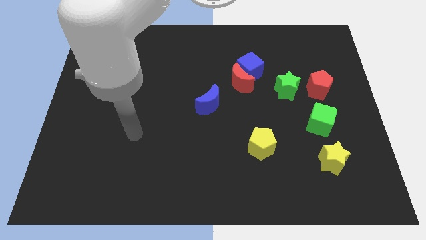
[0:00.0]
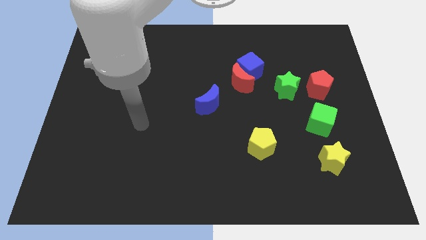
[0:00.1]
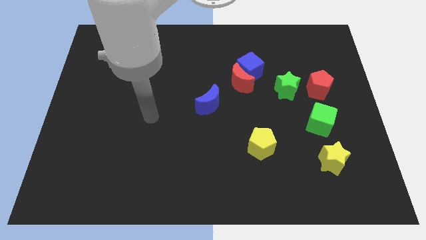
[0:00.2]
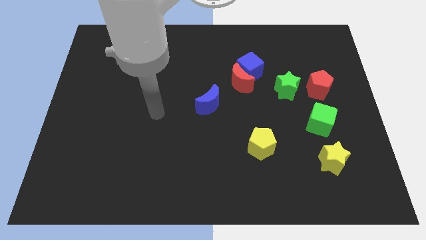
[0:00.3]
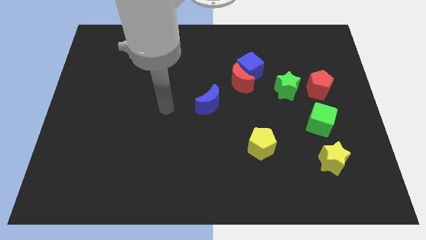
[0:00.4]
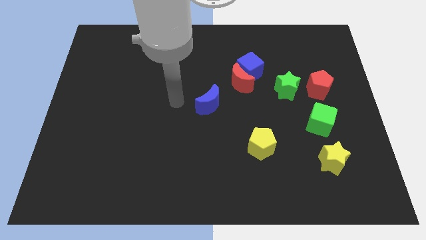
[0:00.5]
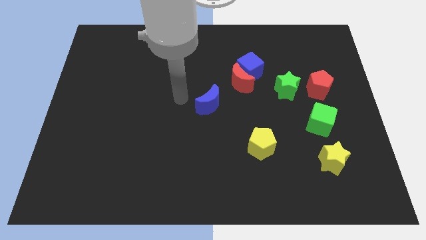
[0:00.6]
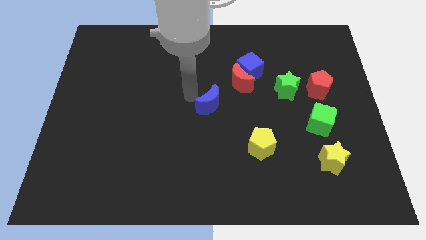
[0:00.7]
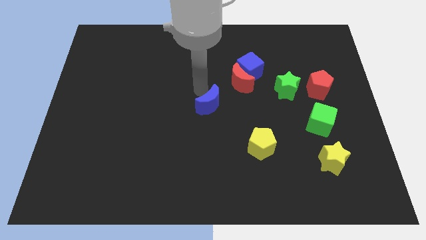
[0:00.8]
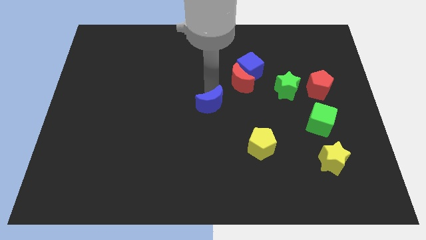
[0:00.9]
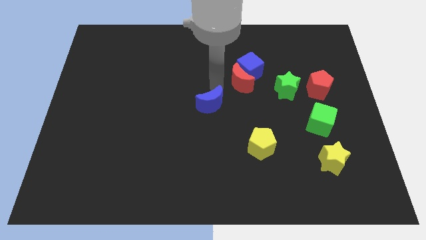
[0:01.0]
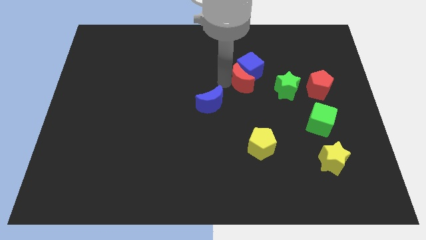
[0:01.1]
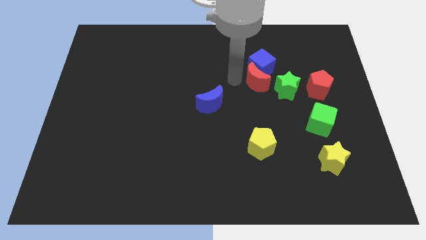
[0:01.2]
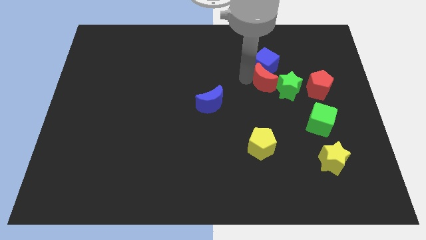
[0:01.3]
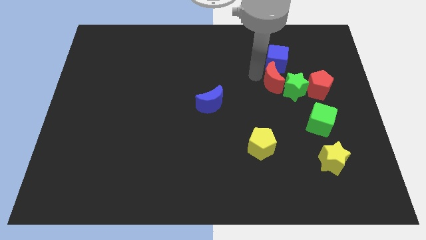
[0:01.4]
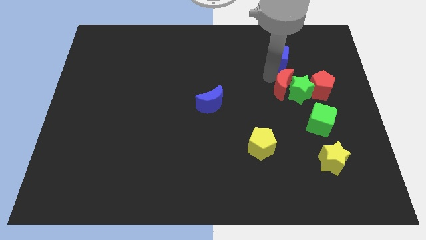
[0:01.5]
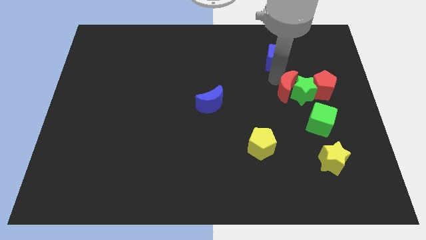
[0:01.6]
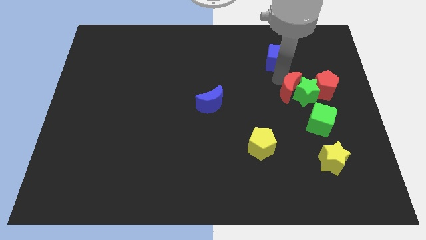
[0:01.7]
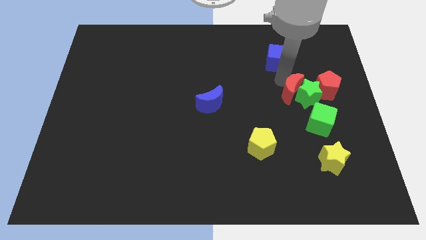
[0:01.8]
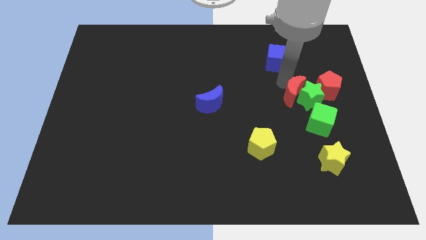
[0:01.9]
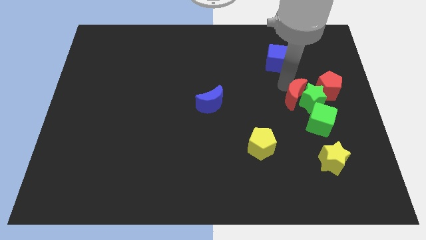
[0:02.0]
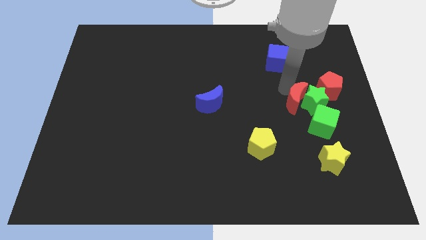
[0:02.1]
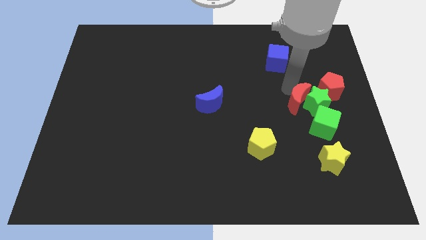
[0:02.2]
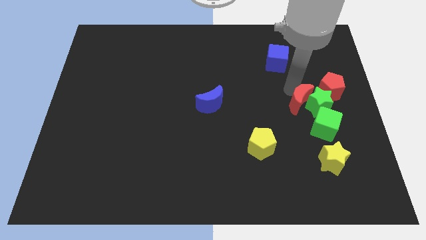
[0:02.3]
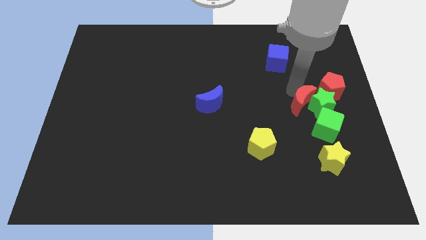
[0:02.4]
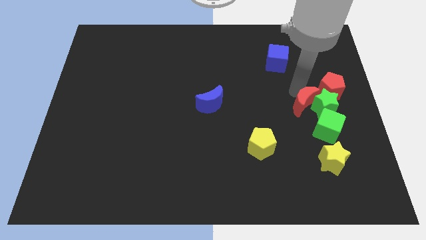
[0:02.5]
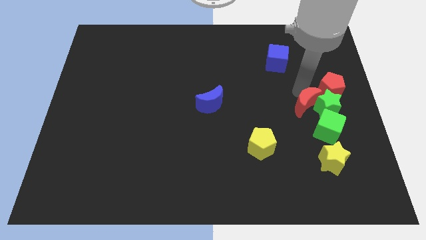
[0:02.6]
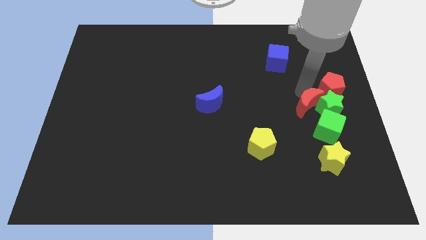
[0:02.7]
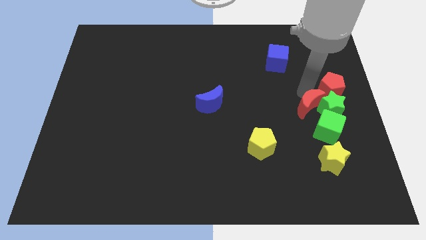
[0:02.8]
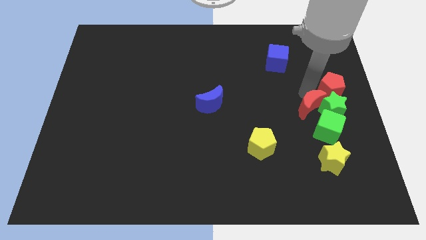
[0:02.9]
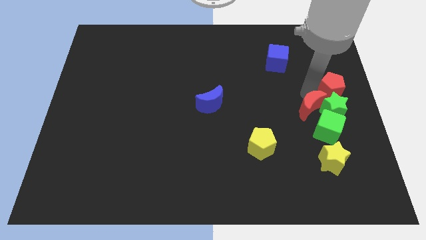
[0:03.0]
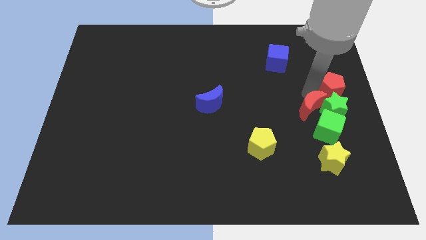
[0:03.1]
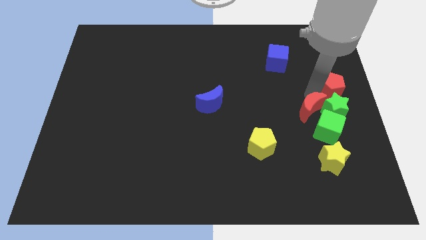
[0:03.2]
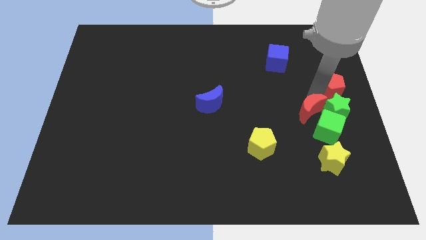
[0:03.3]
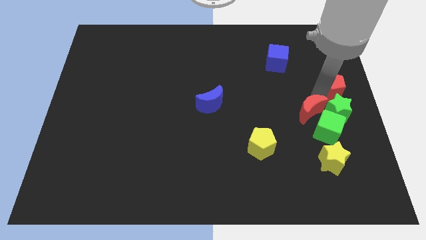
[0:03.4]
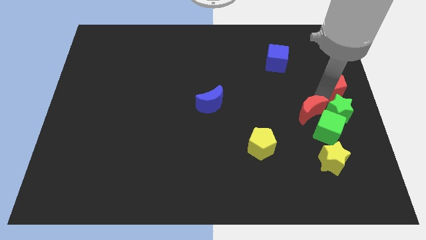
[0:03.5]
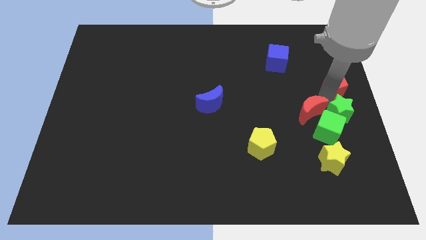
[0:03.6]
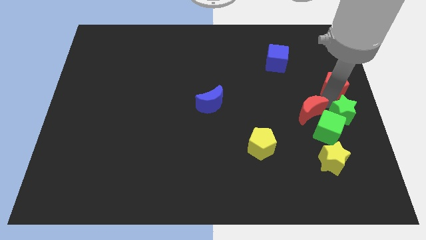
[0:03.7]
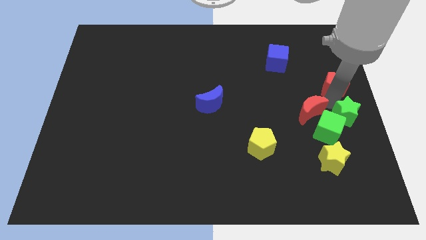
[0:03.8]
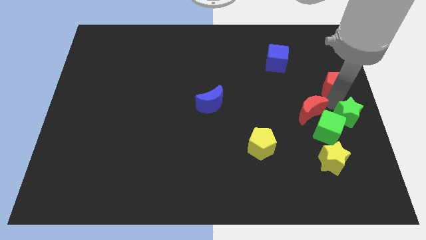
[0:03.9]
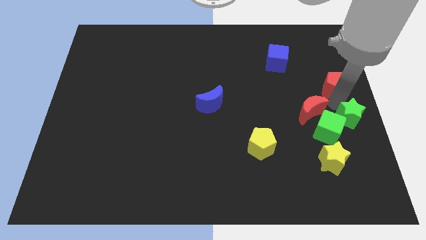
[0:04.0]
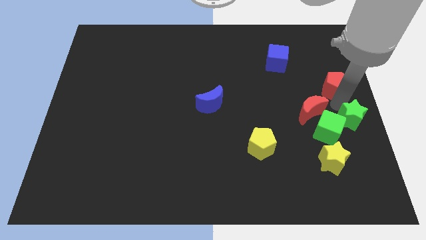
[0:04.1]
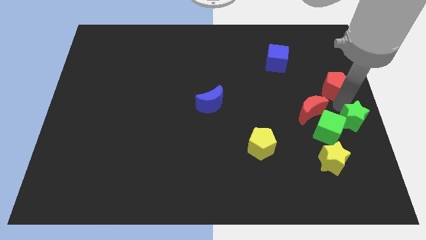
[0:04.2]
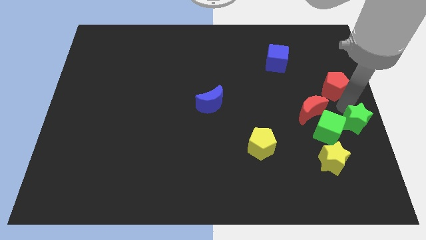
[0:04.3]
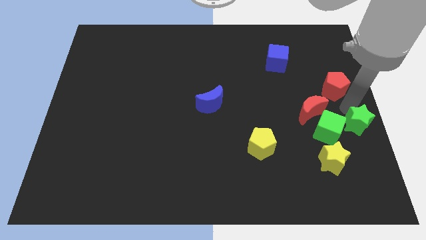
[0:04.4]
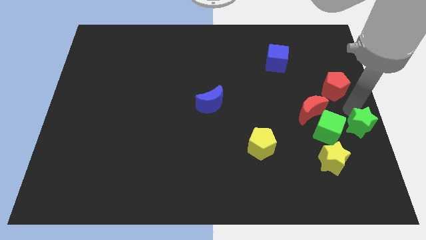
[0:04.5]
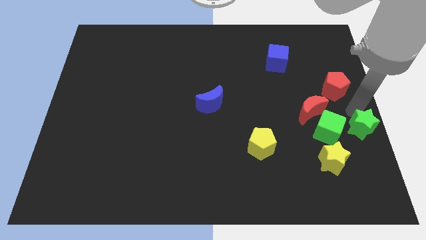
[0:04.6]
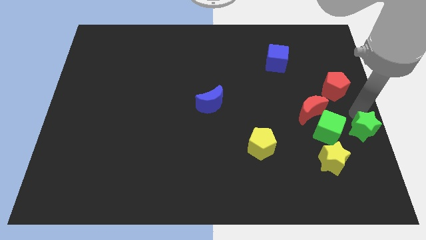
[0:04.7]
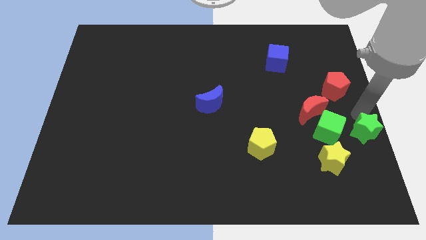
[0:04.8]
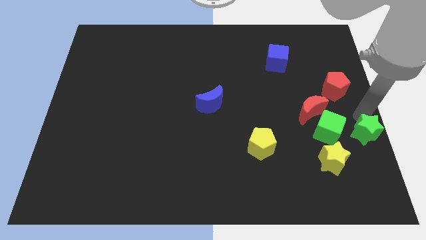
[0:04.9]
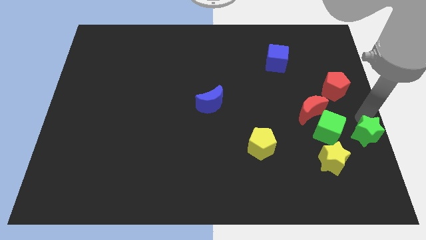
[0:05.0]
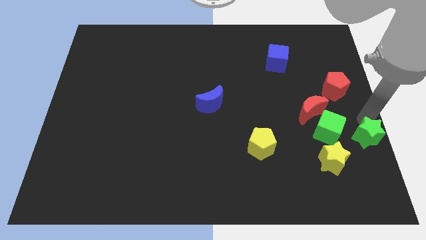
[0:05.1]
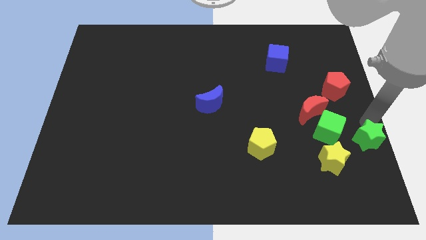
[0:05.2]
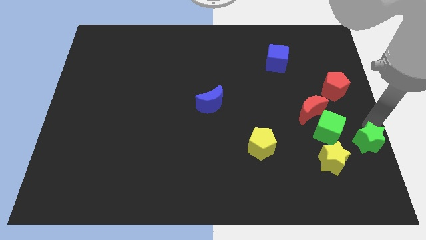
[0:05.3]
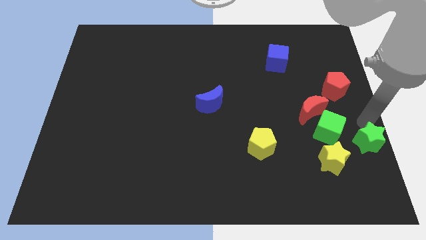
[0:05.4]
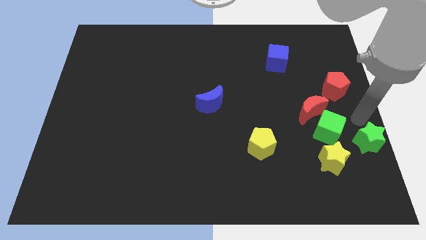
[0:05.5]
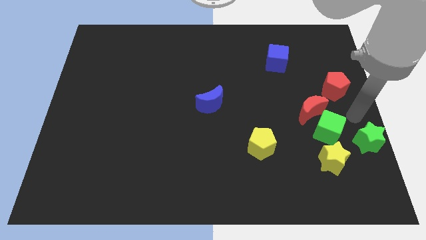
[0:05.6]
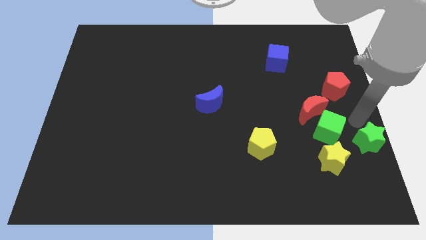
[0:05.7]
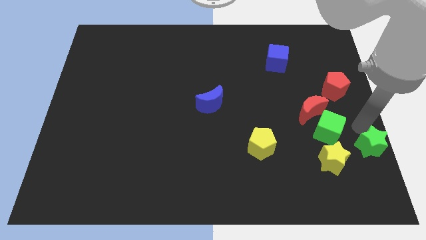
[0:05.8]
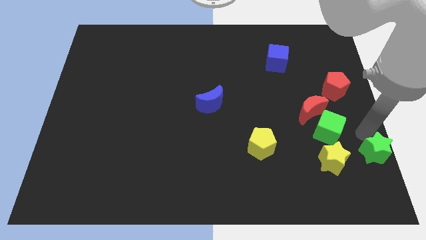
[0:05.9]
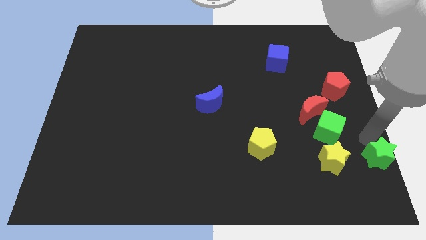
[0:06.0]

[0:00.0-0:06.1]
move the green star to the bottom right of the board

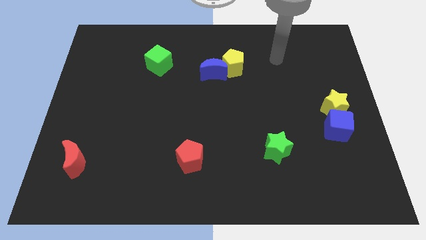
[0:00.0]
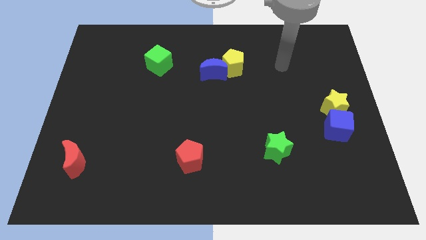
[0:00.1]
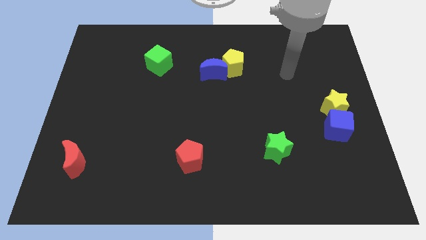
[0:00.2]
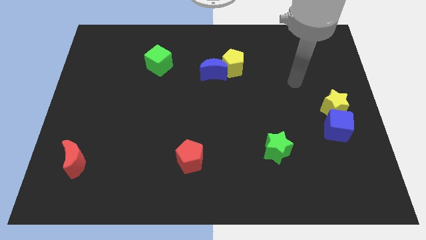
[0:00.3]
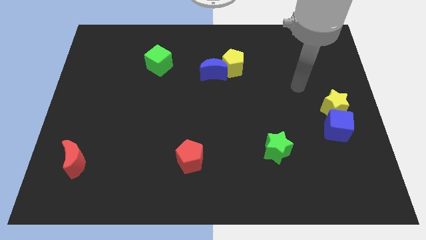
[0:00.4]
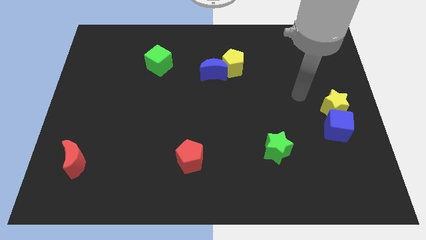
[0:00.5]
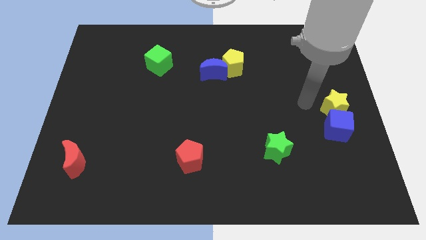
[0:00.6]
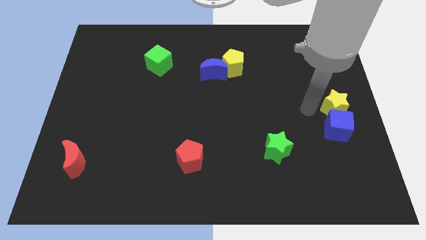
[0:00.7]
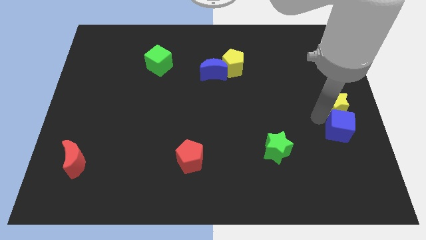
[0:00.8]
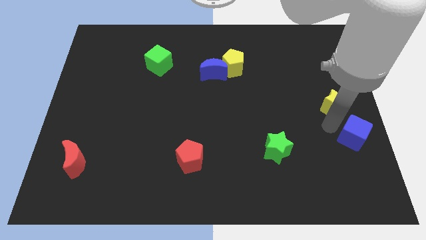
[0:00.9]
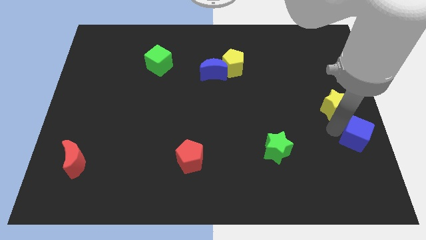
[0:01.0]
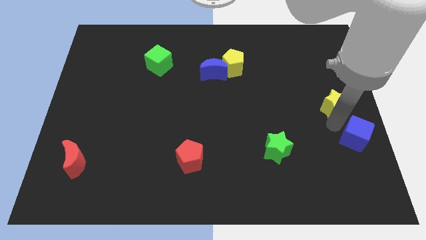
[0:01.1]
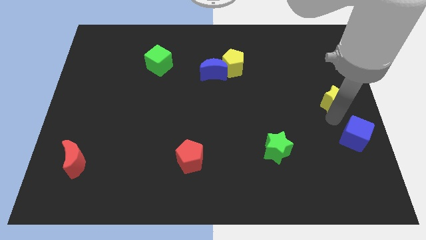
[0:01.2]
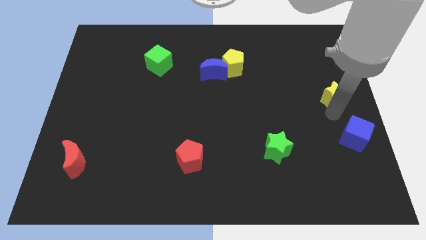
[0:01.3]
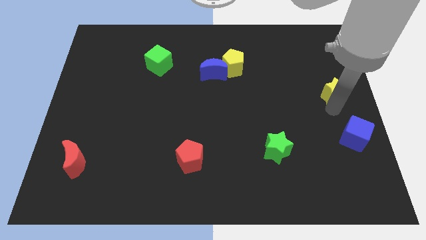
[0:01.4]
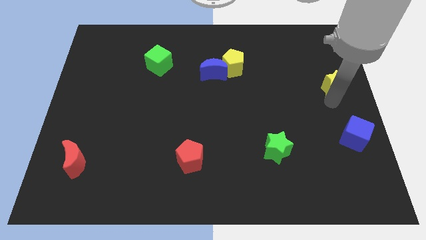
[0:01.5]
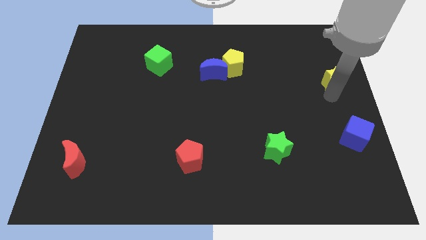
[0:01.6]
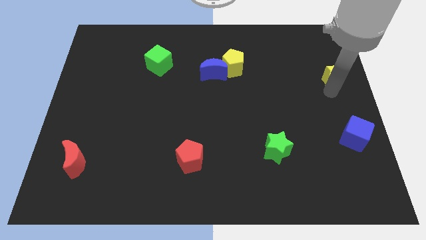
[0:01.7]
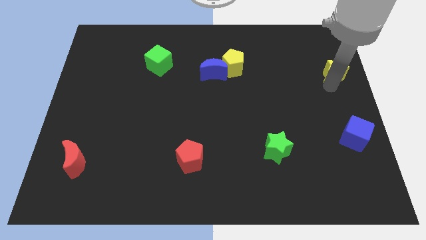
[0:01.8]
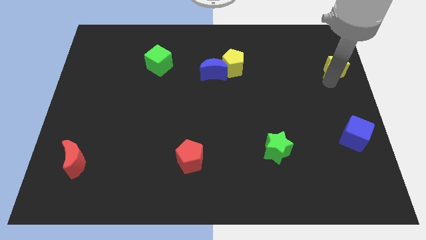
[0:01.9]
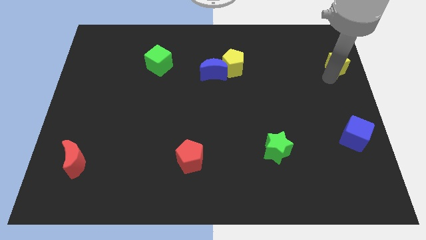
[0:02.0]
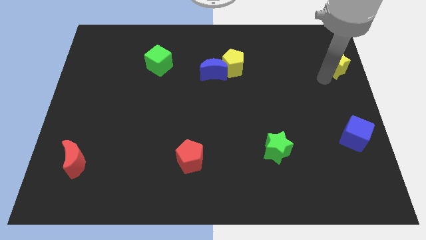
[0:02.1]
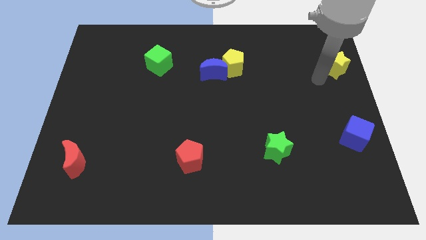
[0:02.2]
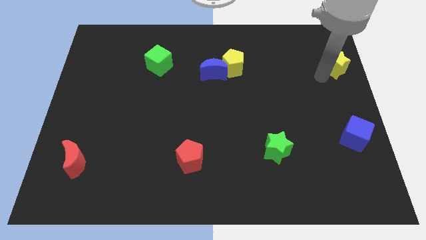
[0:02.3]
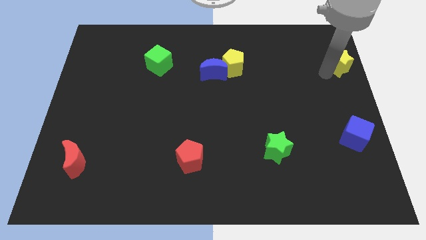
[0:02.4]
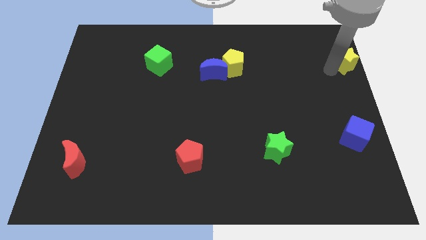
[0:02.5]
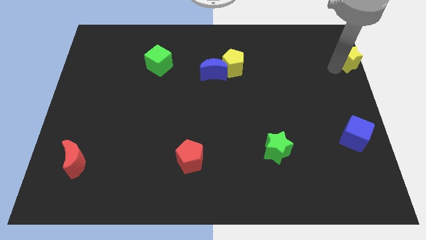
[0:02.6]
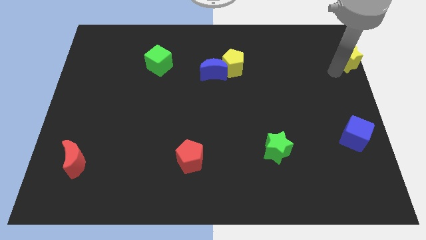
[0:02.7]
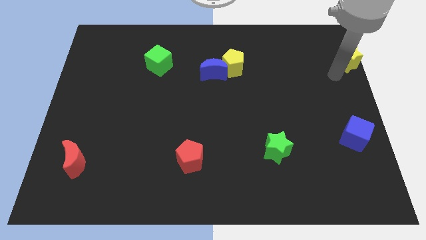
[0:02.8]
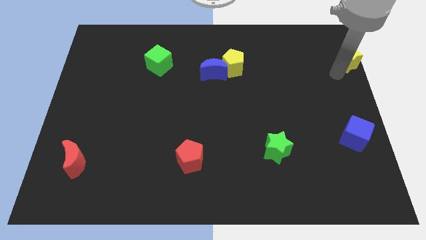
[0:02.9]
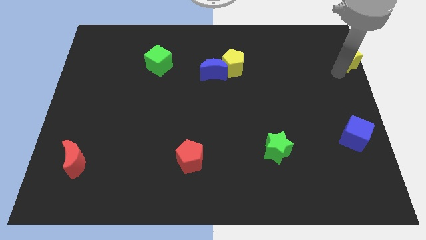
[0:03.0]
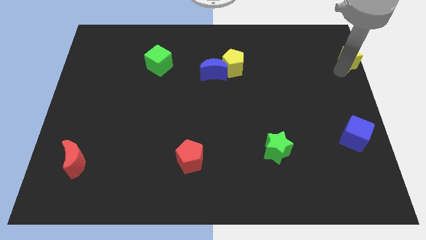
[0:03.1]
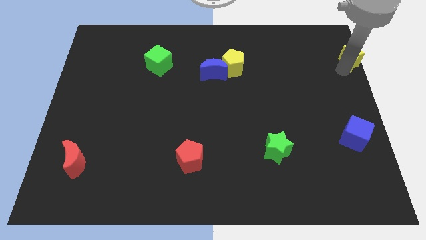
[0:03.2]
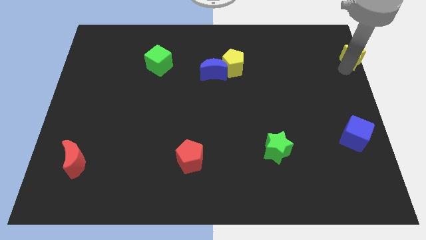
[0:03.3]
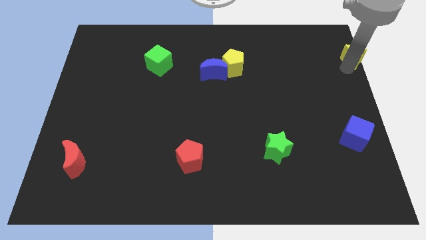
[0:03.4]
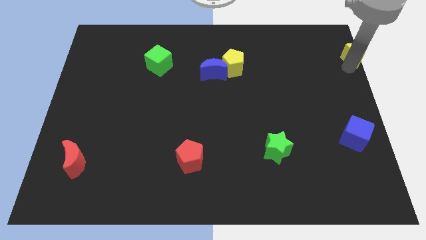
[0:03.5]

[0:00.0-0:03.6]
put the yellow star to the top right corner
